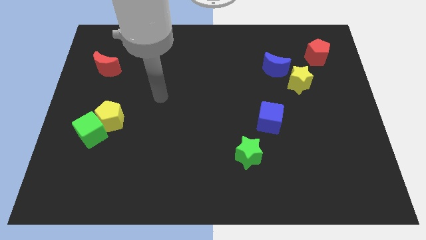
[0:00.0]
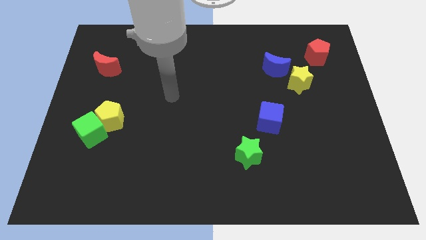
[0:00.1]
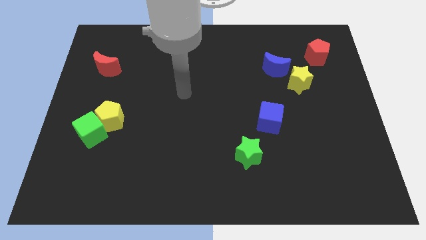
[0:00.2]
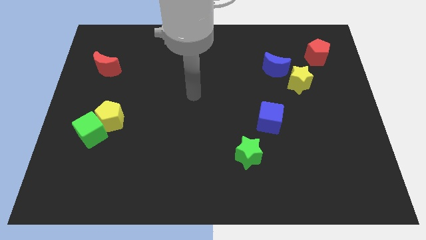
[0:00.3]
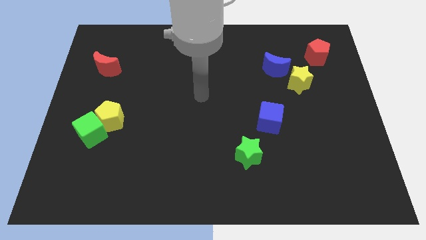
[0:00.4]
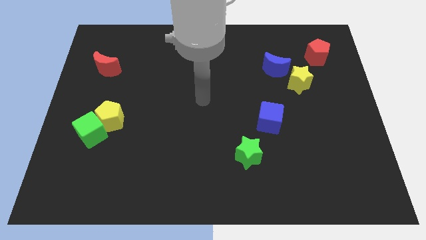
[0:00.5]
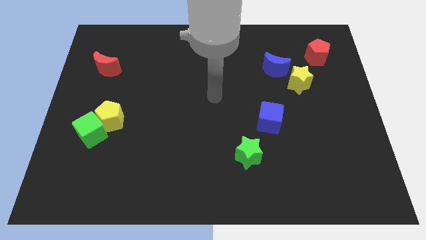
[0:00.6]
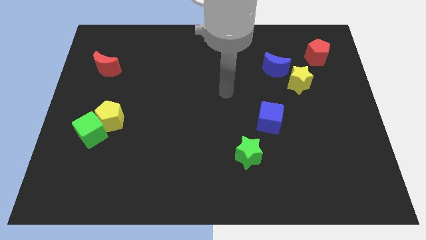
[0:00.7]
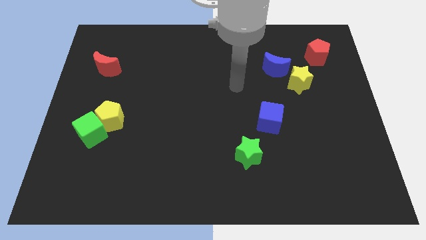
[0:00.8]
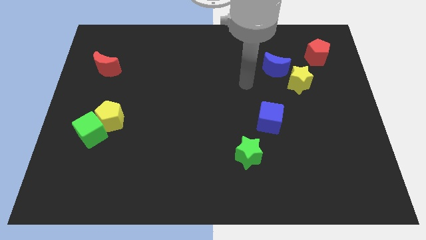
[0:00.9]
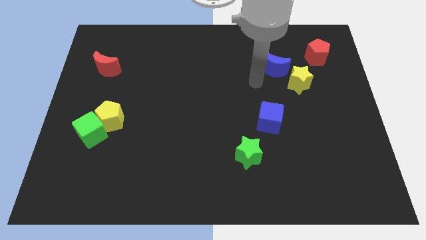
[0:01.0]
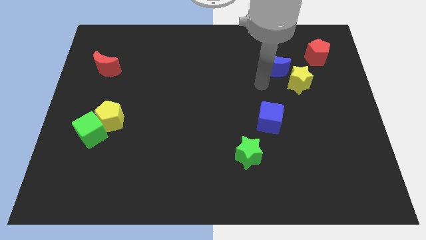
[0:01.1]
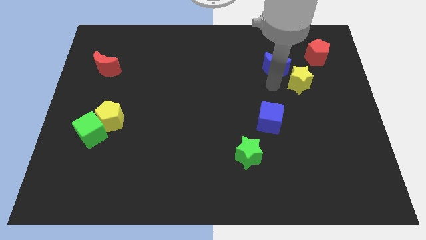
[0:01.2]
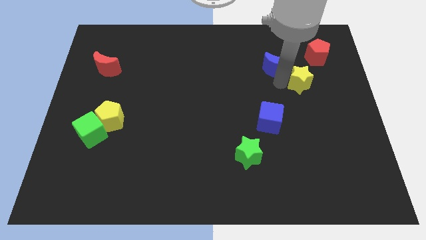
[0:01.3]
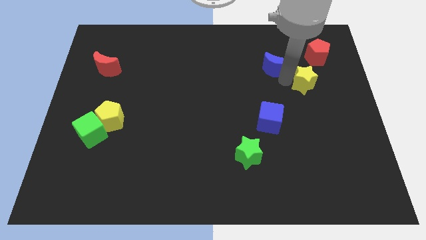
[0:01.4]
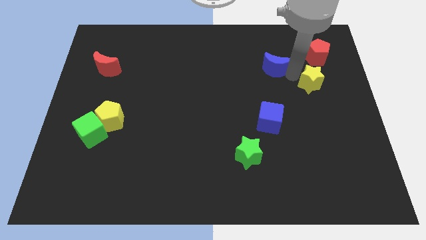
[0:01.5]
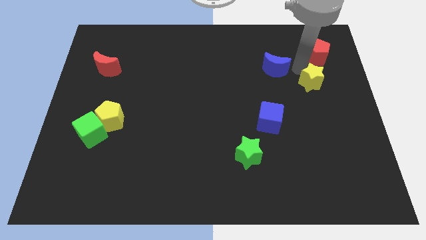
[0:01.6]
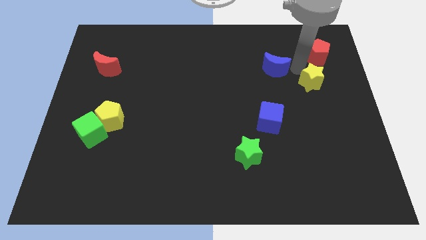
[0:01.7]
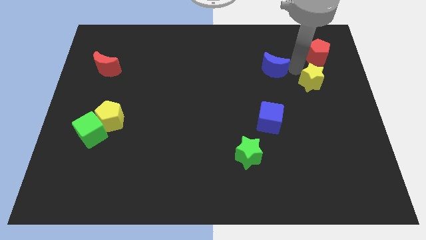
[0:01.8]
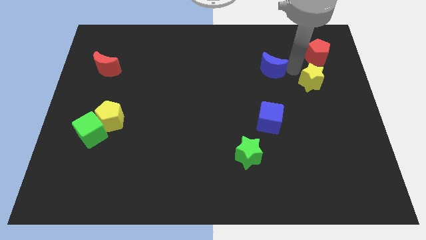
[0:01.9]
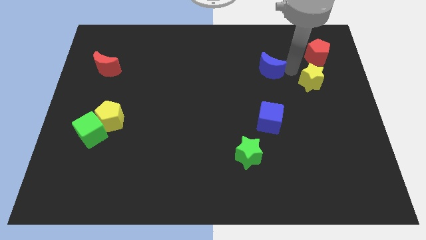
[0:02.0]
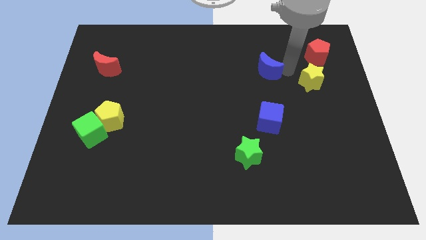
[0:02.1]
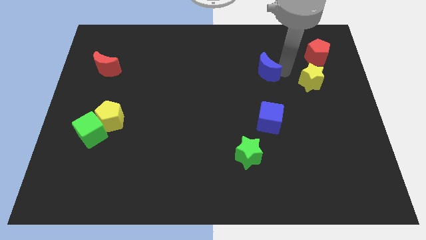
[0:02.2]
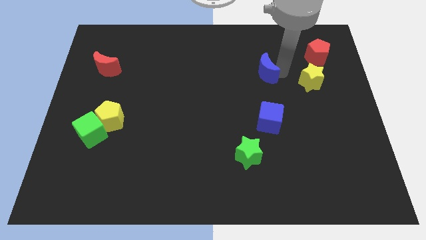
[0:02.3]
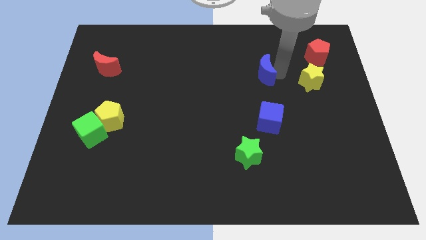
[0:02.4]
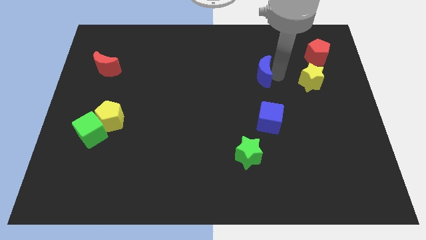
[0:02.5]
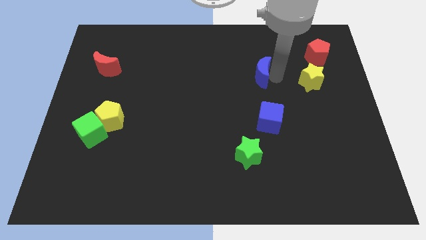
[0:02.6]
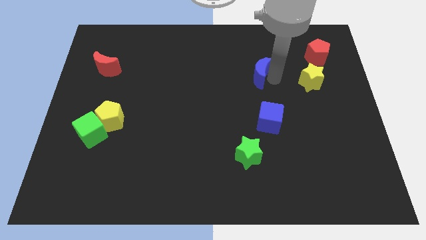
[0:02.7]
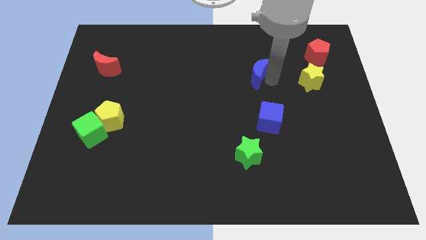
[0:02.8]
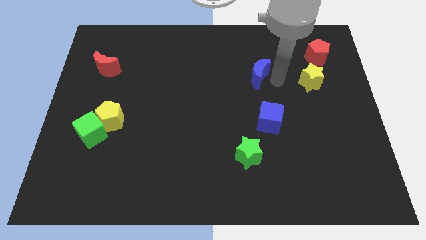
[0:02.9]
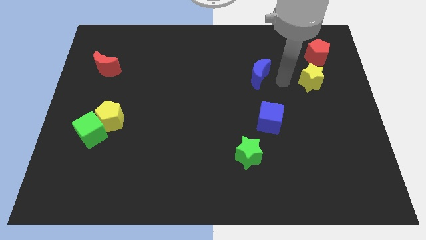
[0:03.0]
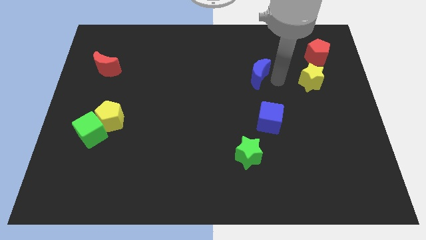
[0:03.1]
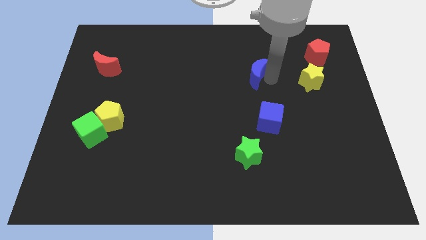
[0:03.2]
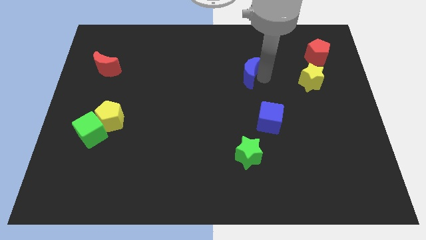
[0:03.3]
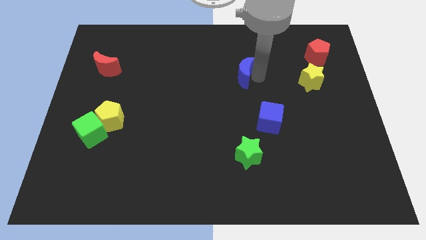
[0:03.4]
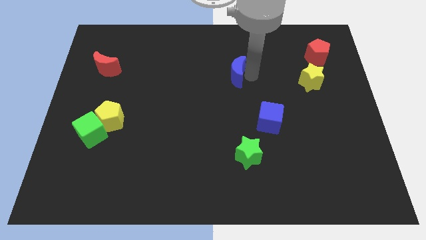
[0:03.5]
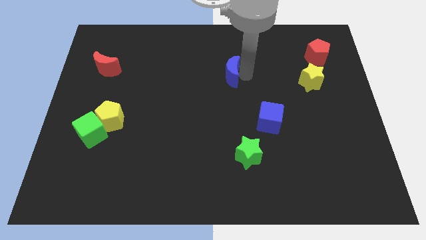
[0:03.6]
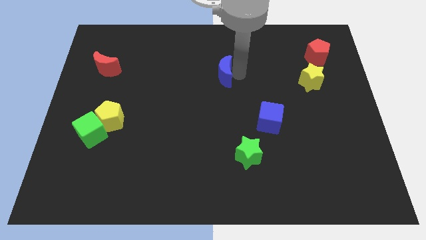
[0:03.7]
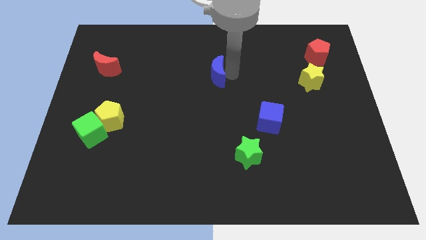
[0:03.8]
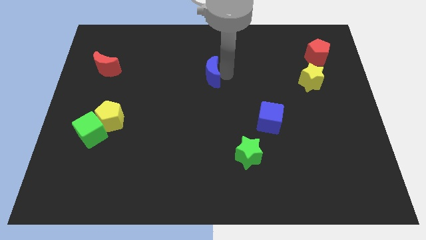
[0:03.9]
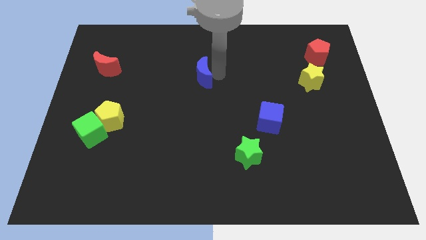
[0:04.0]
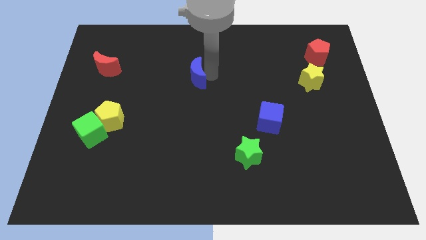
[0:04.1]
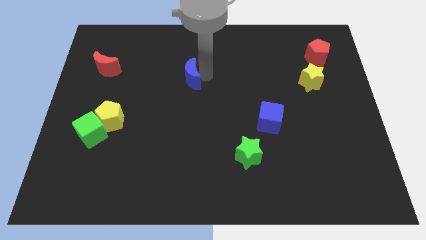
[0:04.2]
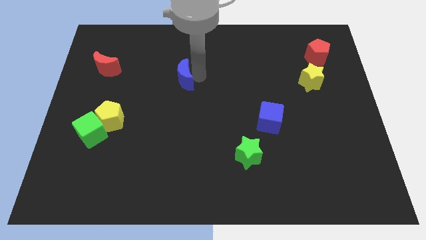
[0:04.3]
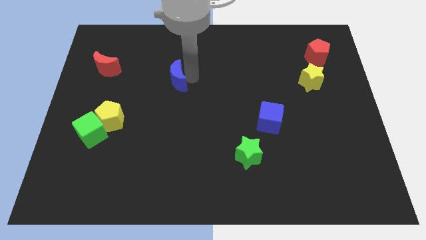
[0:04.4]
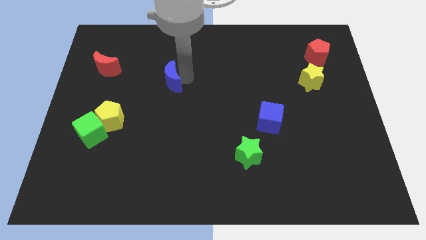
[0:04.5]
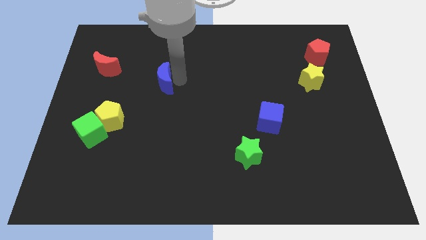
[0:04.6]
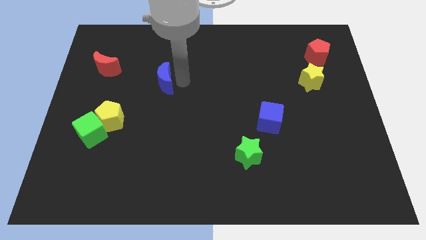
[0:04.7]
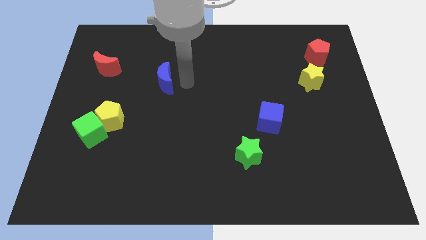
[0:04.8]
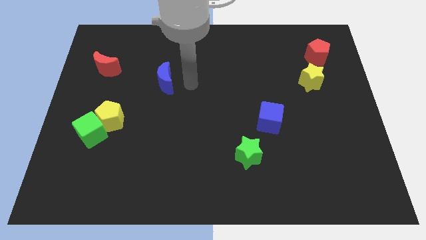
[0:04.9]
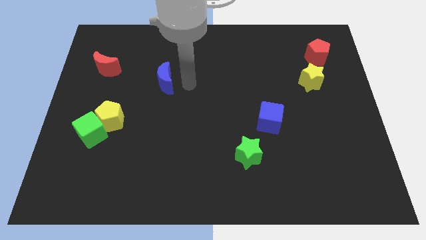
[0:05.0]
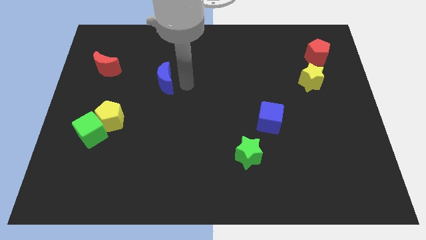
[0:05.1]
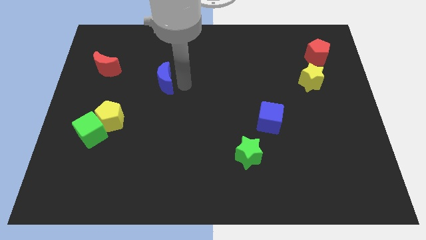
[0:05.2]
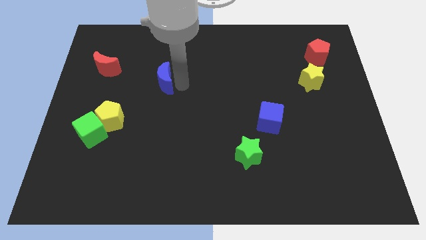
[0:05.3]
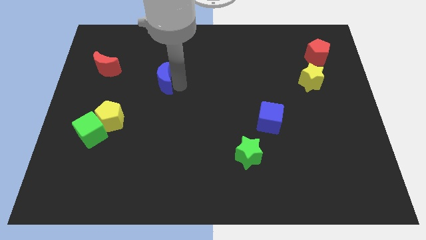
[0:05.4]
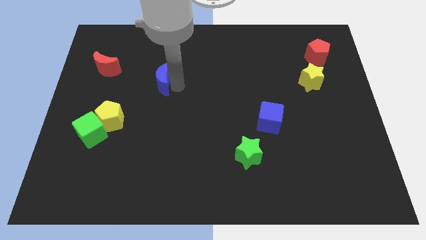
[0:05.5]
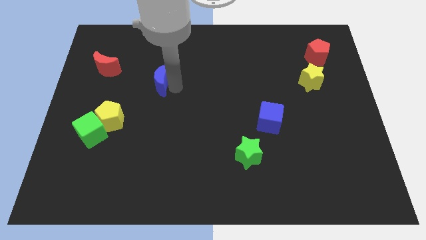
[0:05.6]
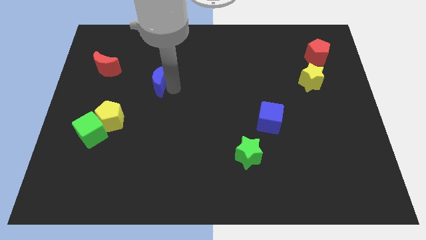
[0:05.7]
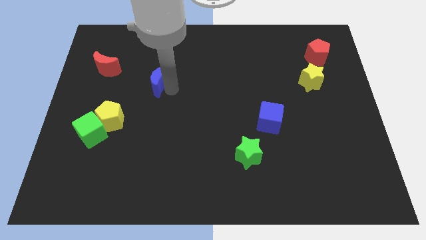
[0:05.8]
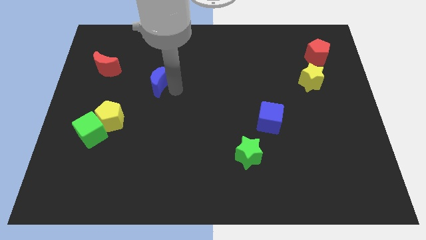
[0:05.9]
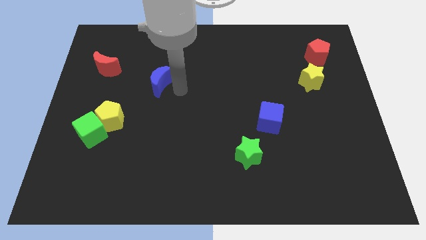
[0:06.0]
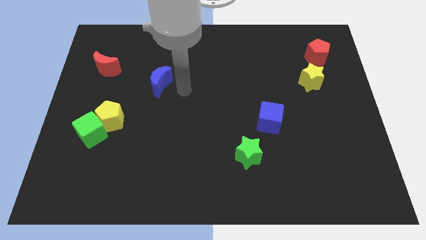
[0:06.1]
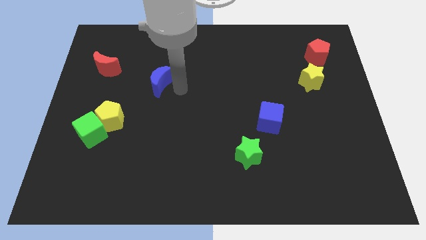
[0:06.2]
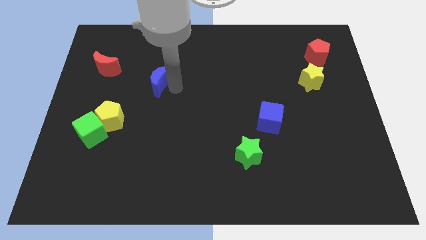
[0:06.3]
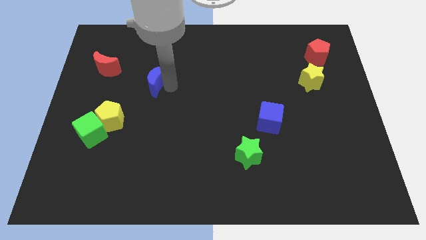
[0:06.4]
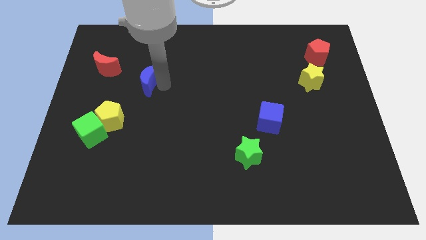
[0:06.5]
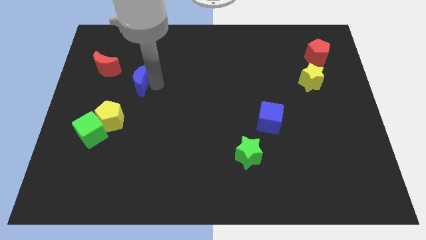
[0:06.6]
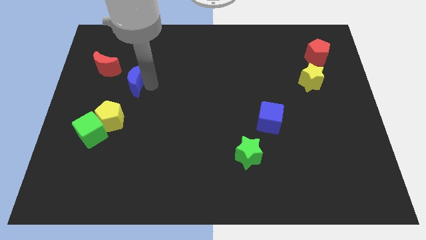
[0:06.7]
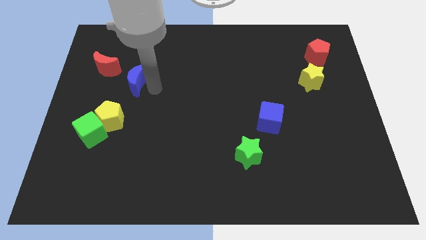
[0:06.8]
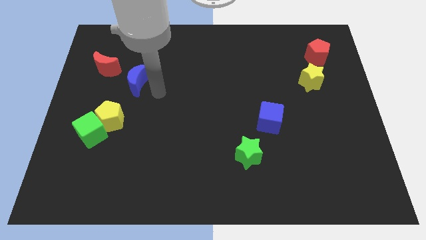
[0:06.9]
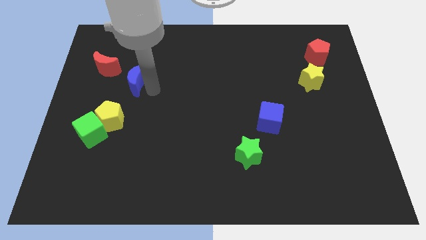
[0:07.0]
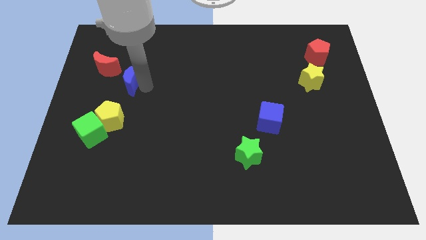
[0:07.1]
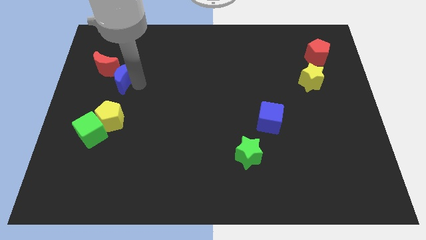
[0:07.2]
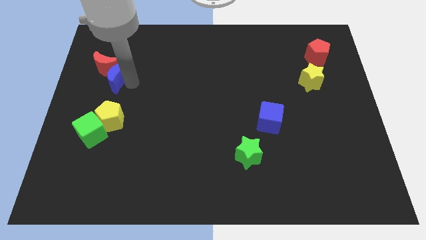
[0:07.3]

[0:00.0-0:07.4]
move the blue moon towards the red moon
